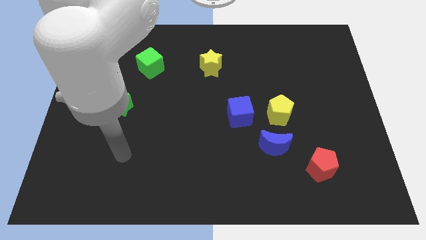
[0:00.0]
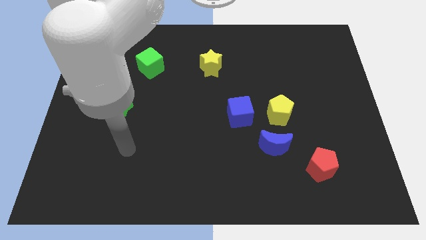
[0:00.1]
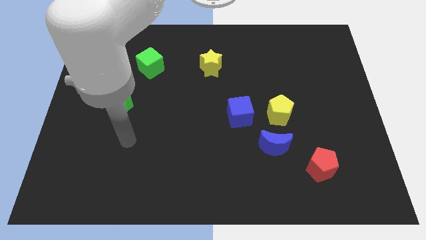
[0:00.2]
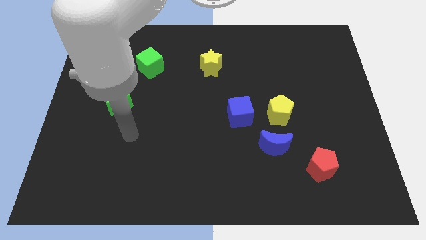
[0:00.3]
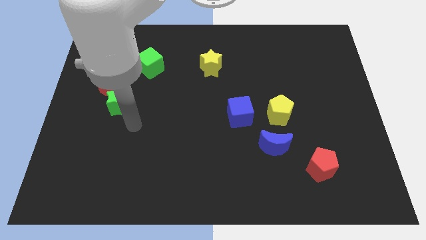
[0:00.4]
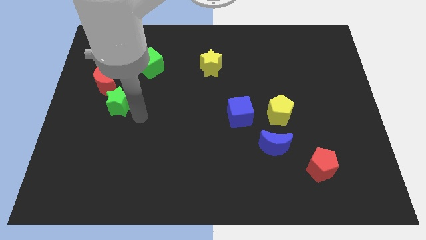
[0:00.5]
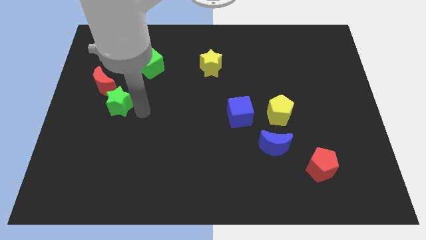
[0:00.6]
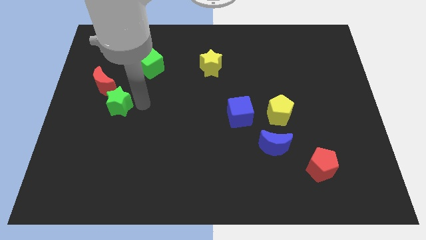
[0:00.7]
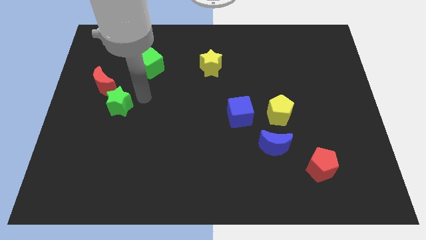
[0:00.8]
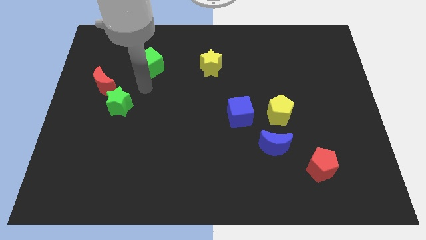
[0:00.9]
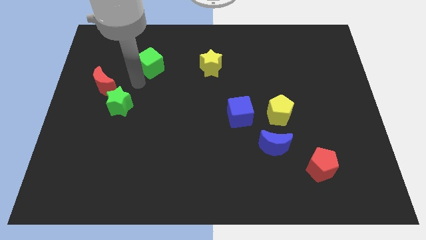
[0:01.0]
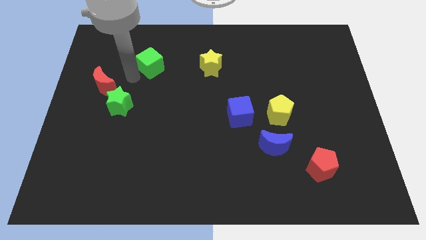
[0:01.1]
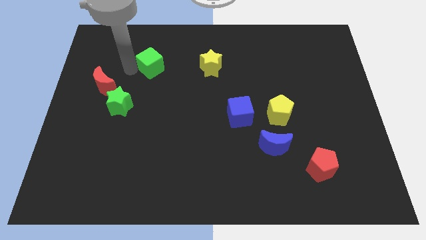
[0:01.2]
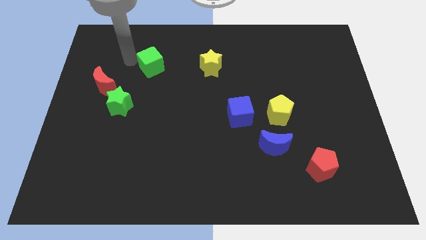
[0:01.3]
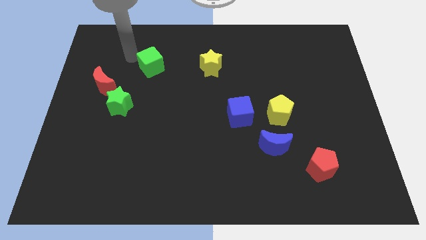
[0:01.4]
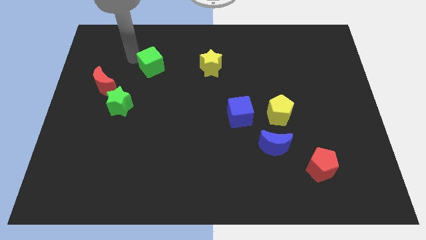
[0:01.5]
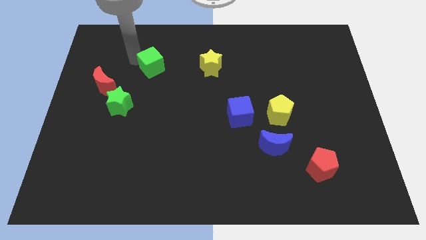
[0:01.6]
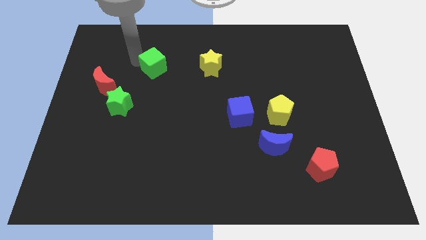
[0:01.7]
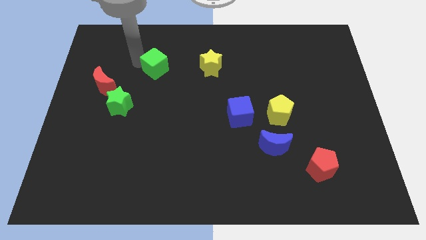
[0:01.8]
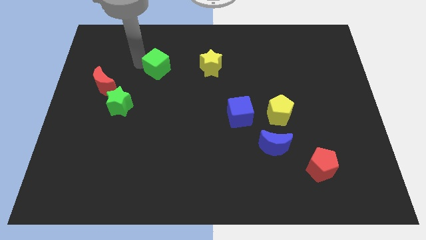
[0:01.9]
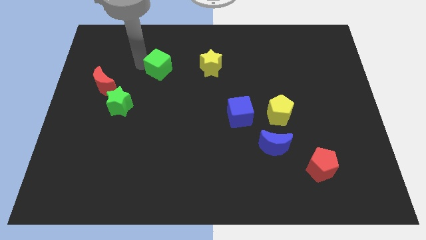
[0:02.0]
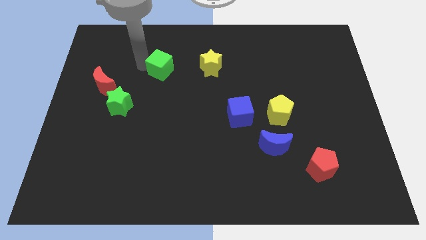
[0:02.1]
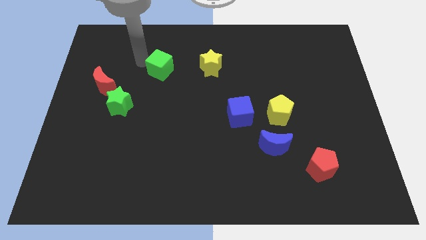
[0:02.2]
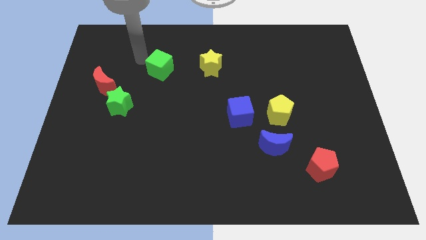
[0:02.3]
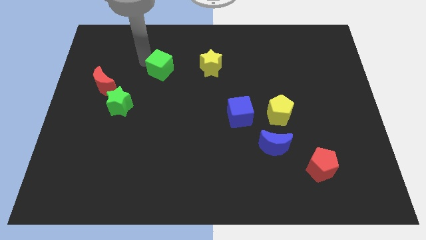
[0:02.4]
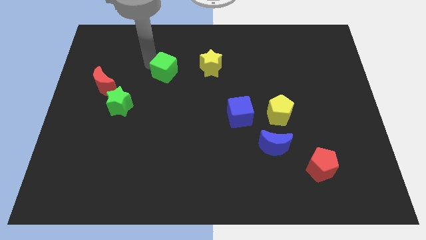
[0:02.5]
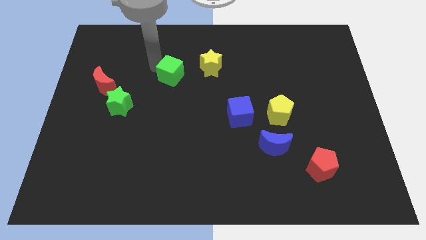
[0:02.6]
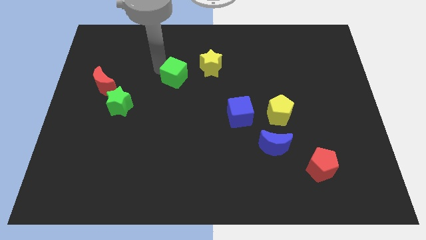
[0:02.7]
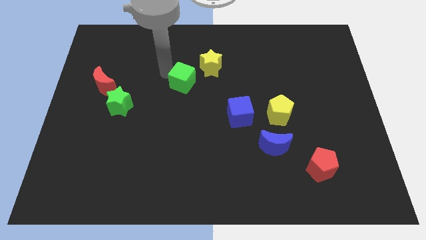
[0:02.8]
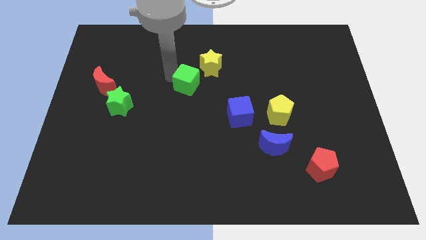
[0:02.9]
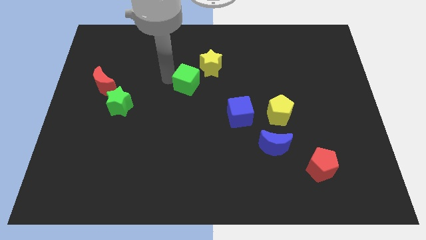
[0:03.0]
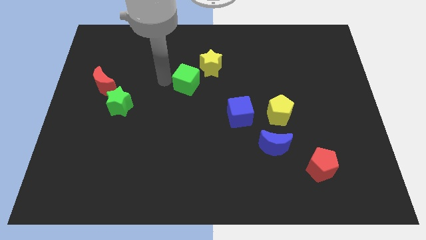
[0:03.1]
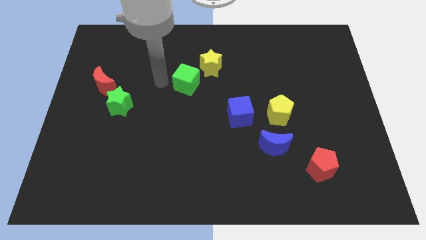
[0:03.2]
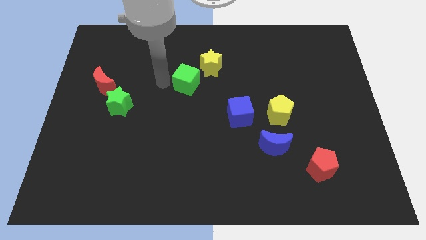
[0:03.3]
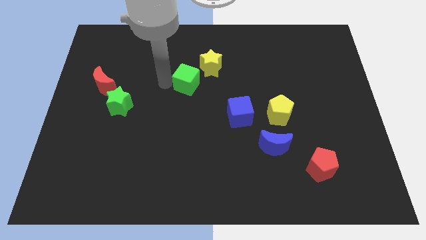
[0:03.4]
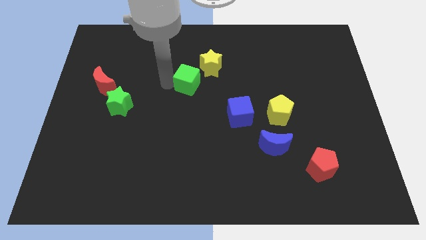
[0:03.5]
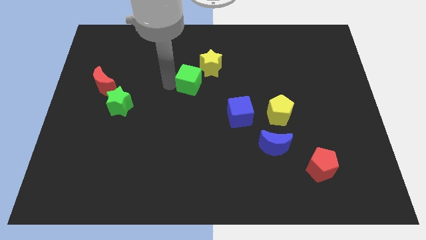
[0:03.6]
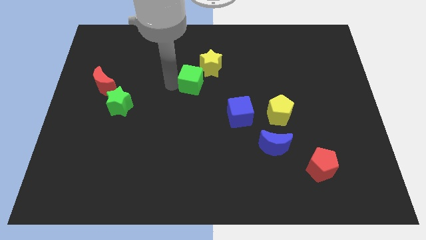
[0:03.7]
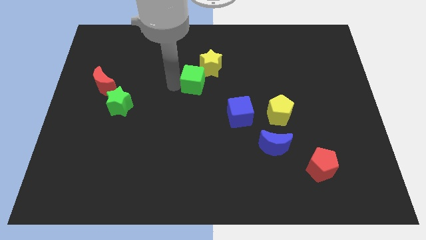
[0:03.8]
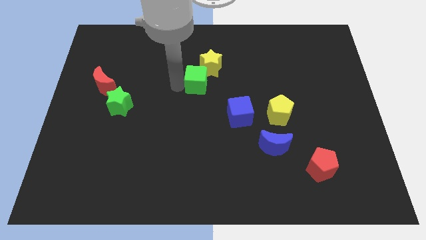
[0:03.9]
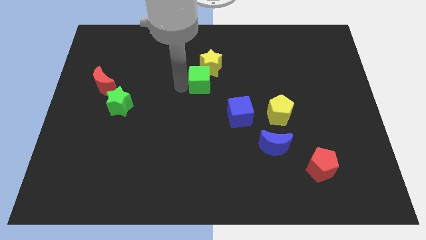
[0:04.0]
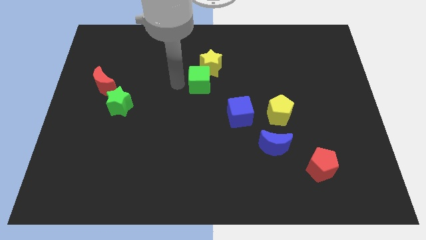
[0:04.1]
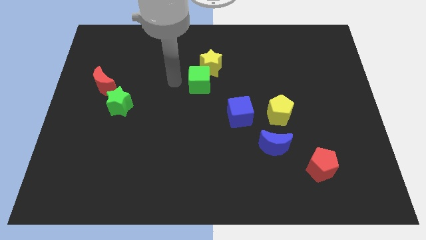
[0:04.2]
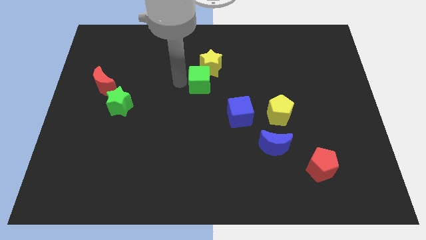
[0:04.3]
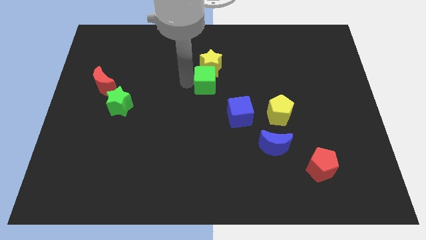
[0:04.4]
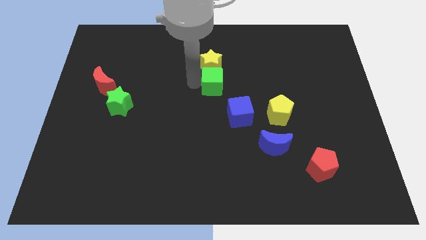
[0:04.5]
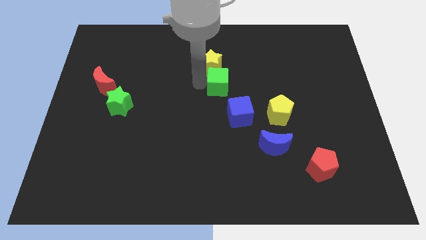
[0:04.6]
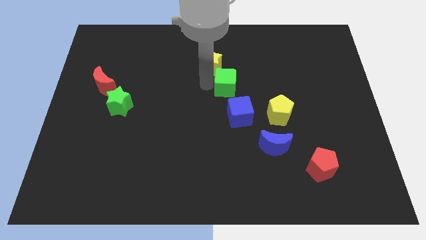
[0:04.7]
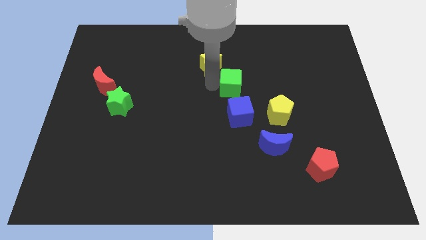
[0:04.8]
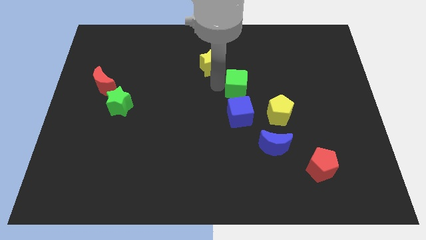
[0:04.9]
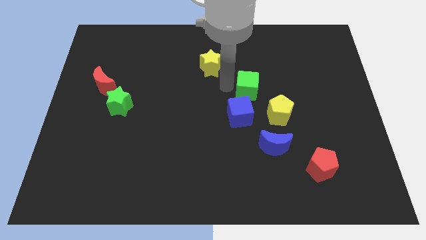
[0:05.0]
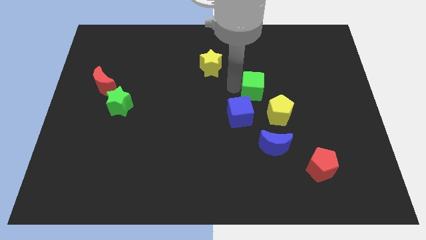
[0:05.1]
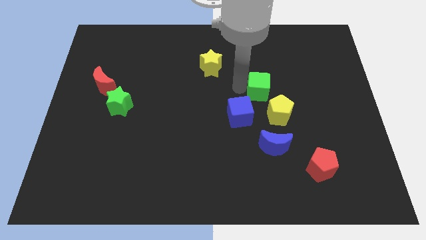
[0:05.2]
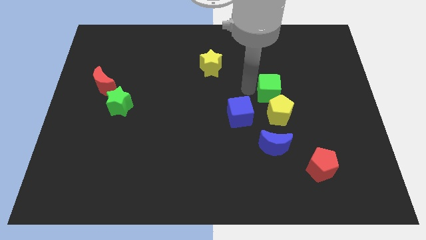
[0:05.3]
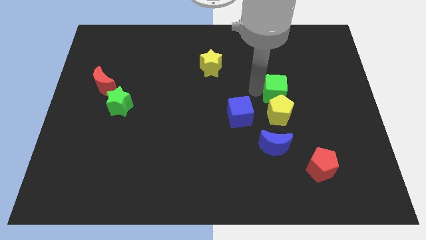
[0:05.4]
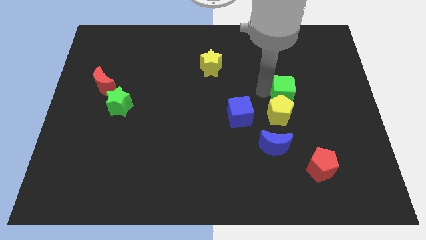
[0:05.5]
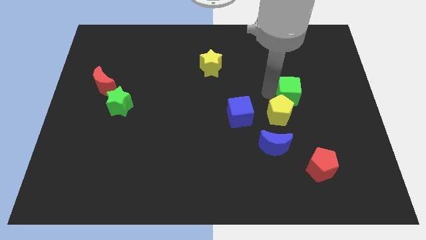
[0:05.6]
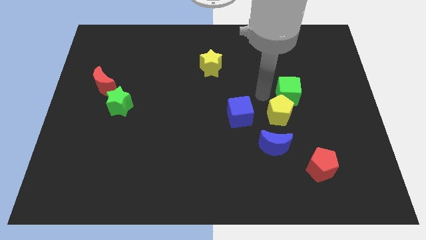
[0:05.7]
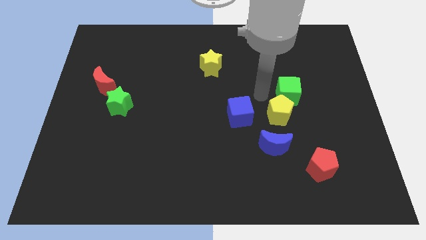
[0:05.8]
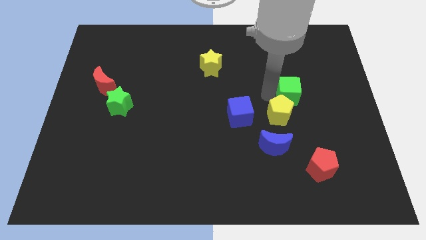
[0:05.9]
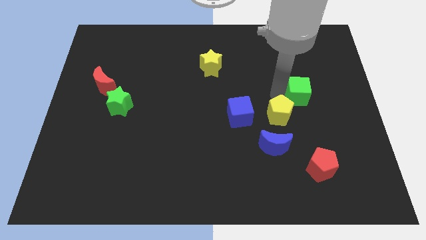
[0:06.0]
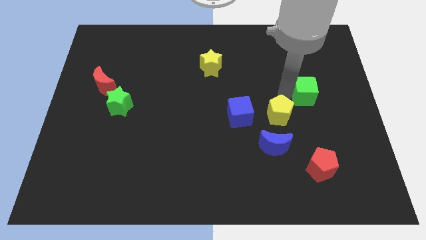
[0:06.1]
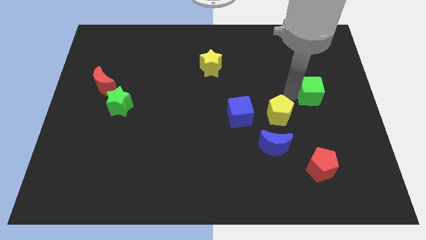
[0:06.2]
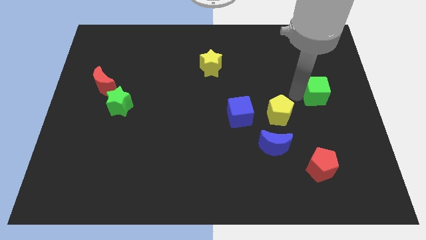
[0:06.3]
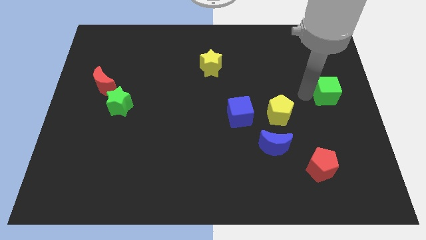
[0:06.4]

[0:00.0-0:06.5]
slide the green cube to the right side of the board
